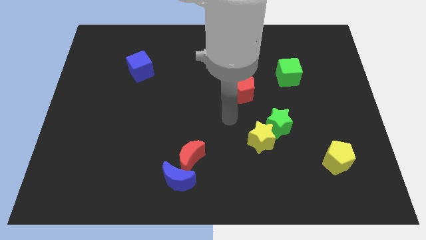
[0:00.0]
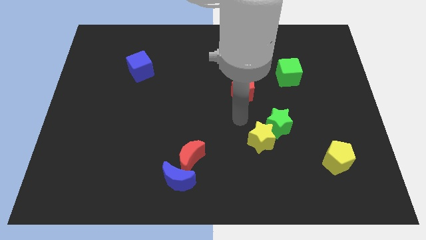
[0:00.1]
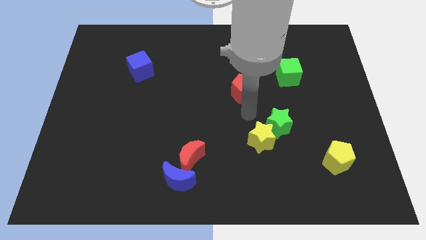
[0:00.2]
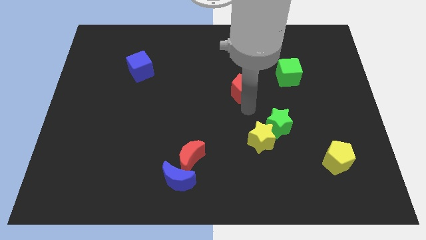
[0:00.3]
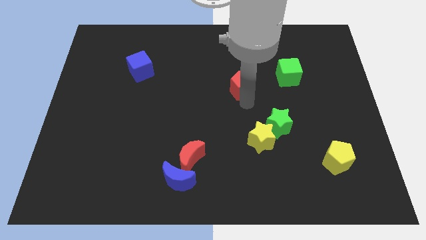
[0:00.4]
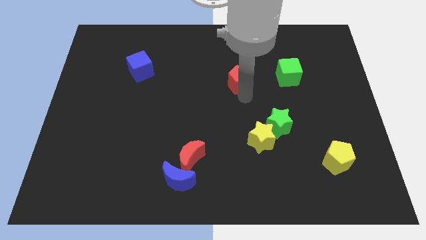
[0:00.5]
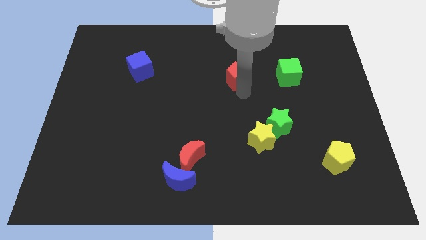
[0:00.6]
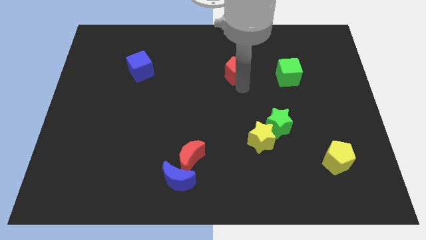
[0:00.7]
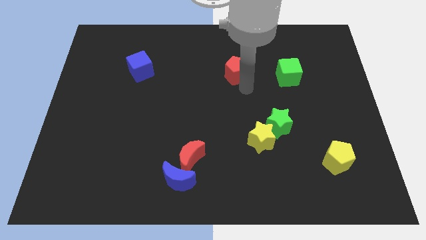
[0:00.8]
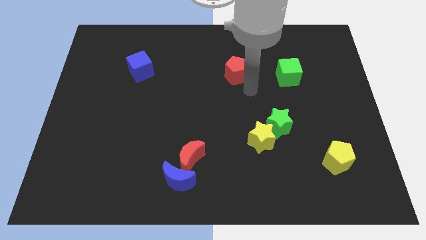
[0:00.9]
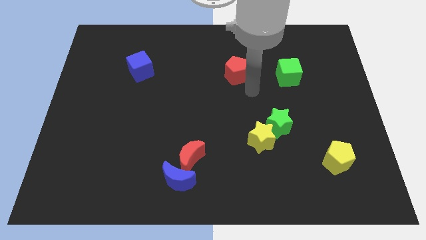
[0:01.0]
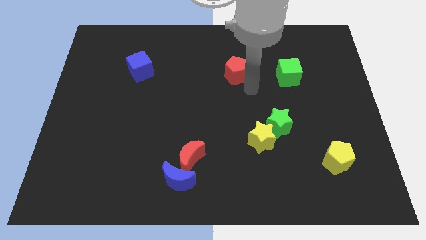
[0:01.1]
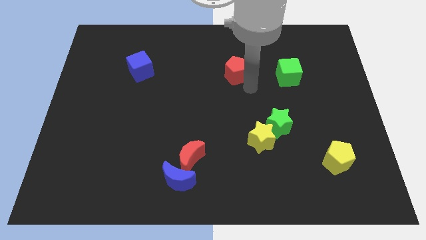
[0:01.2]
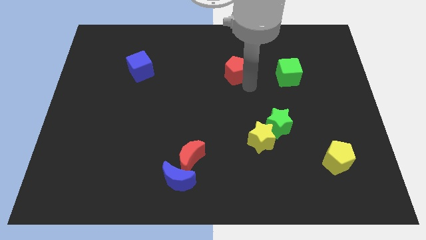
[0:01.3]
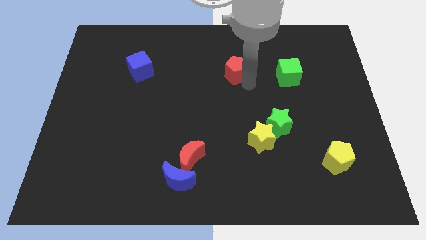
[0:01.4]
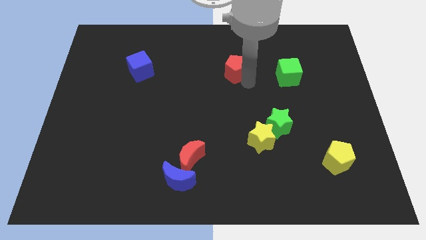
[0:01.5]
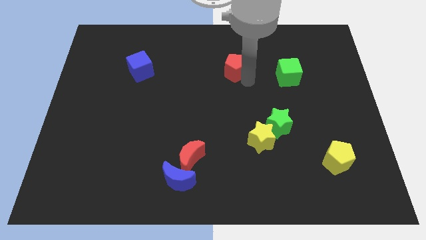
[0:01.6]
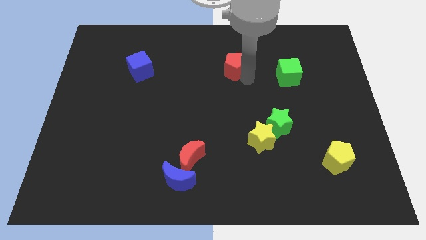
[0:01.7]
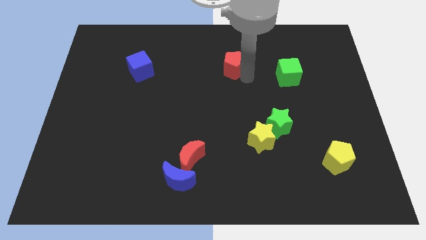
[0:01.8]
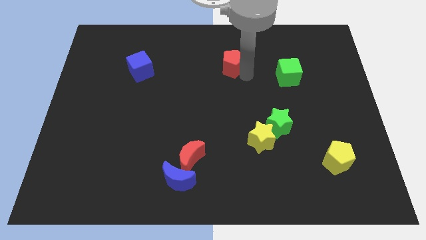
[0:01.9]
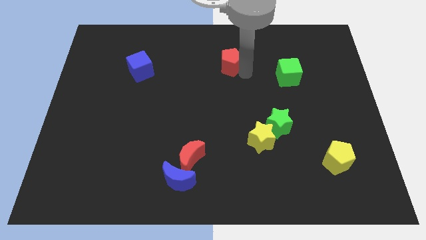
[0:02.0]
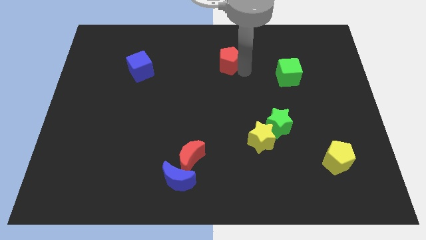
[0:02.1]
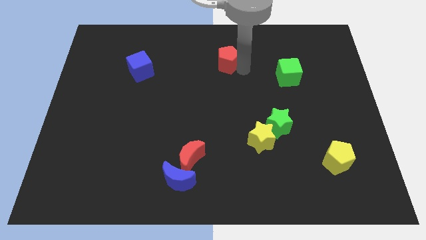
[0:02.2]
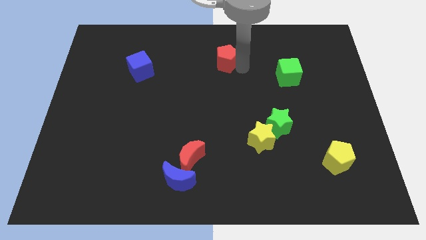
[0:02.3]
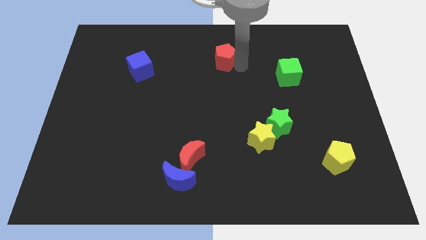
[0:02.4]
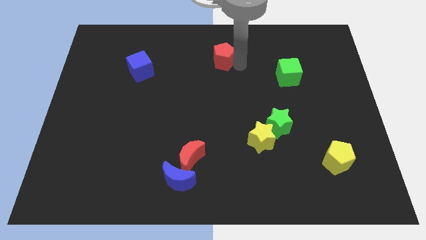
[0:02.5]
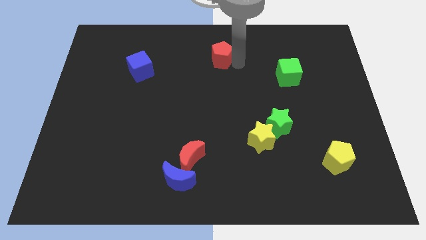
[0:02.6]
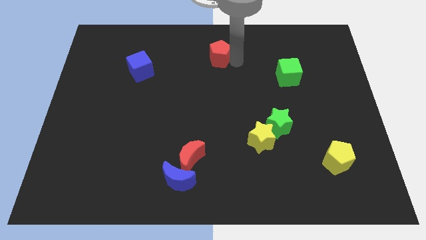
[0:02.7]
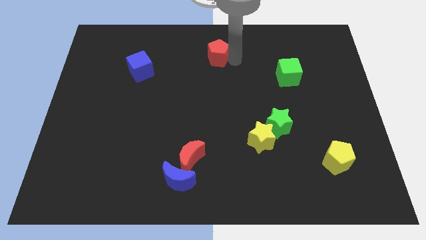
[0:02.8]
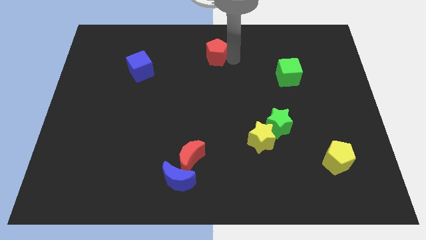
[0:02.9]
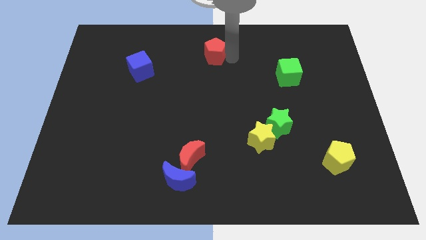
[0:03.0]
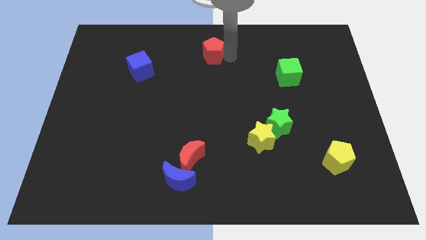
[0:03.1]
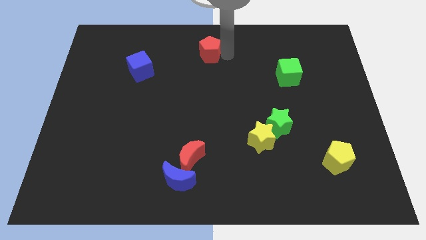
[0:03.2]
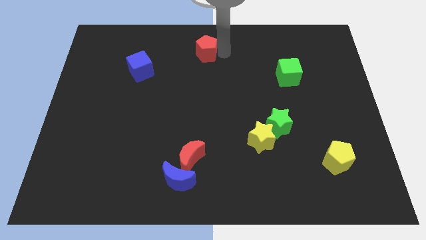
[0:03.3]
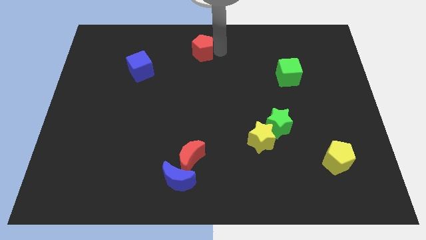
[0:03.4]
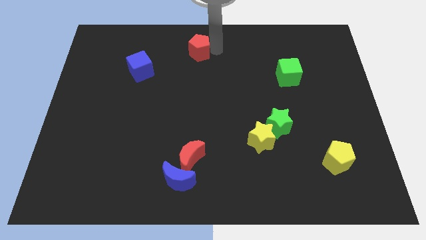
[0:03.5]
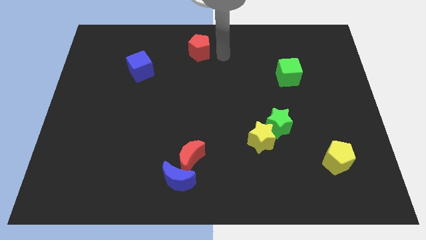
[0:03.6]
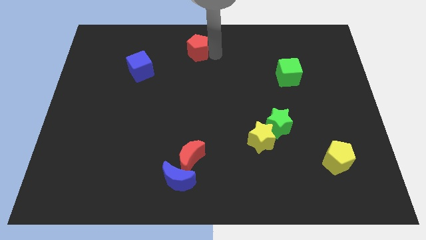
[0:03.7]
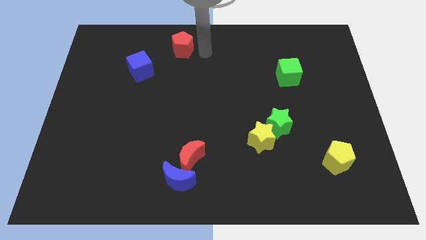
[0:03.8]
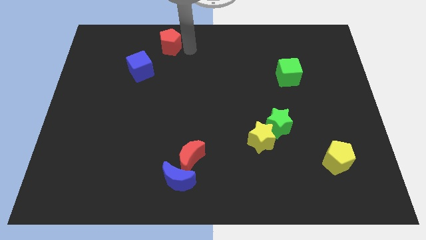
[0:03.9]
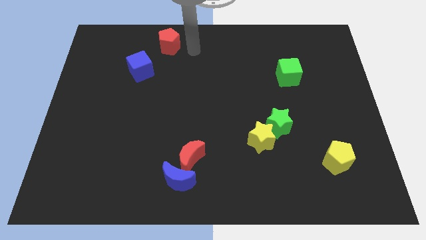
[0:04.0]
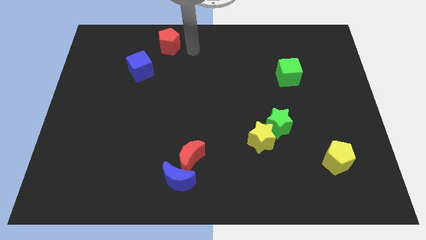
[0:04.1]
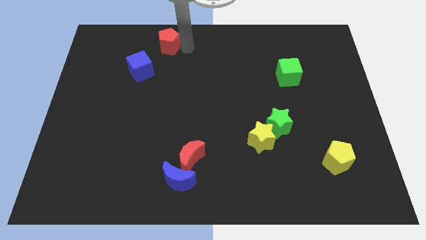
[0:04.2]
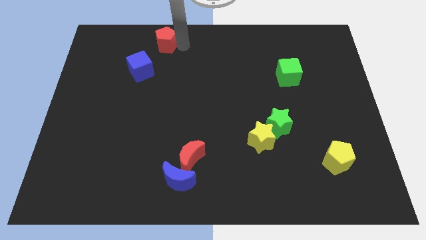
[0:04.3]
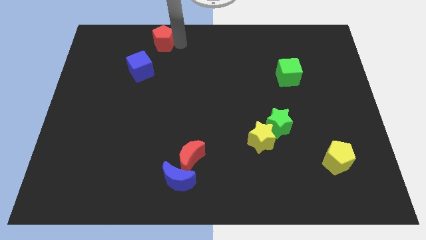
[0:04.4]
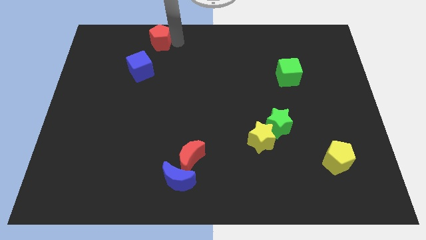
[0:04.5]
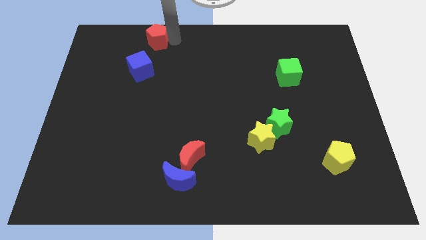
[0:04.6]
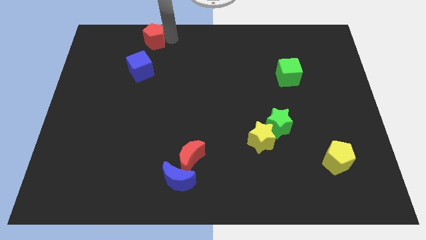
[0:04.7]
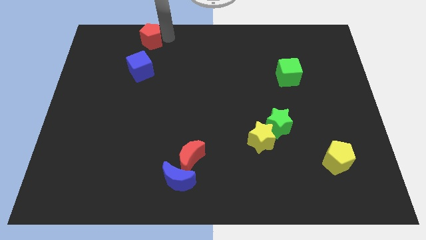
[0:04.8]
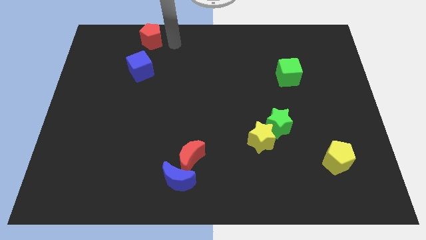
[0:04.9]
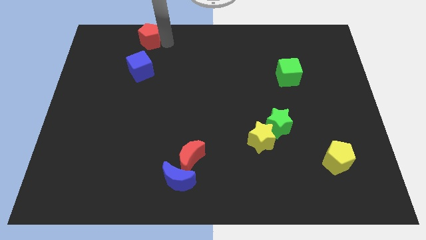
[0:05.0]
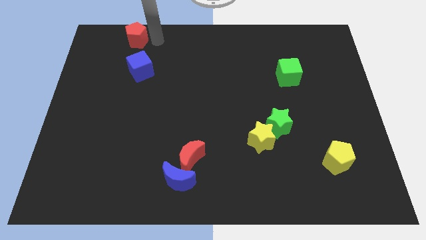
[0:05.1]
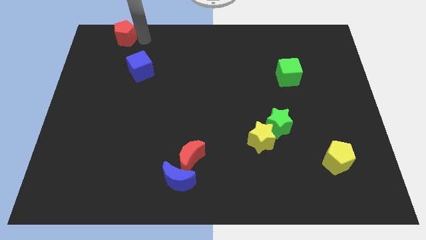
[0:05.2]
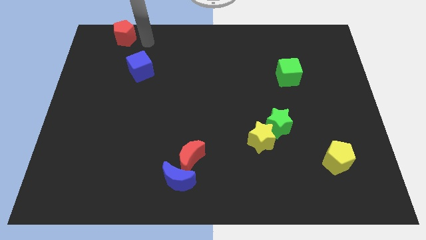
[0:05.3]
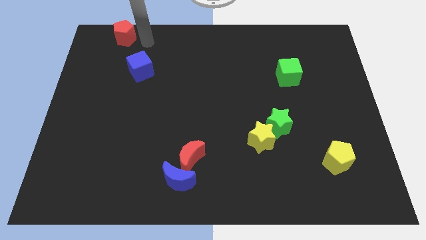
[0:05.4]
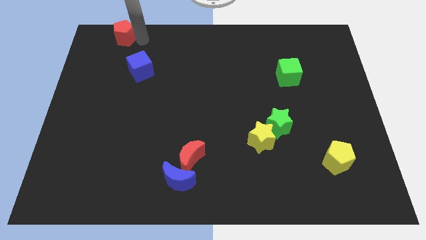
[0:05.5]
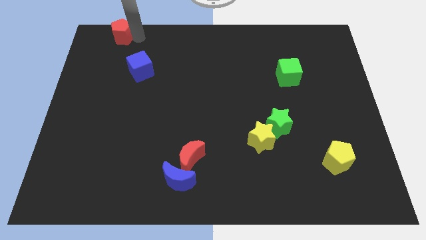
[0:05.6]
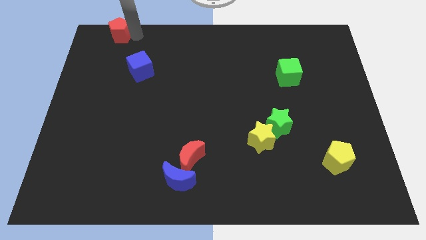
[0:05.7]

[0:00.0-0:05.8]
slide the red pentagon to the top left

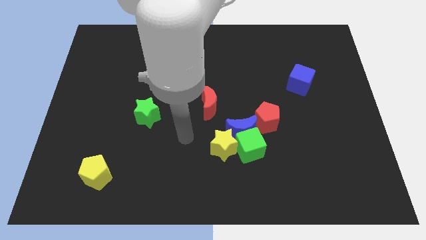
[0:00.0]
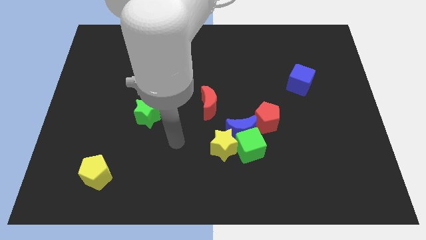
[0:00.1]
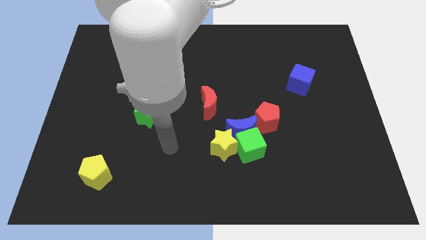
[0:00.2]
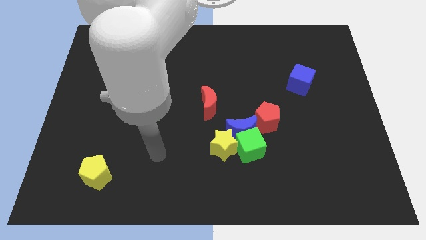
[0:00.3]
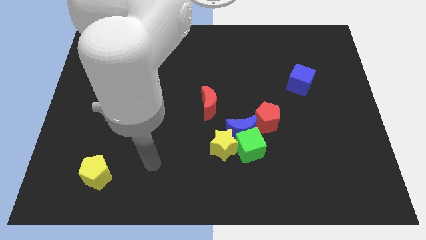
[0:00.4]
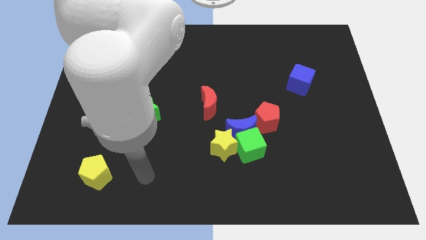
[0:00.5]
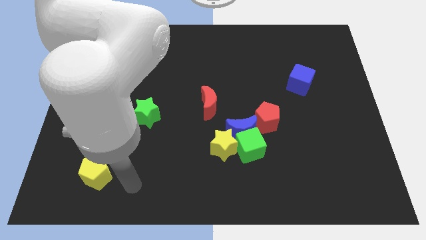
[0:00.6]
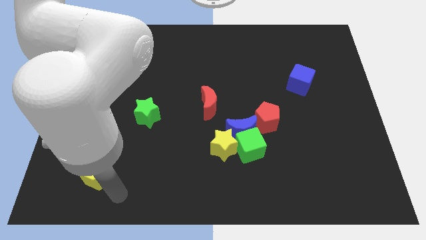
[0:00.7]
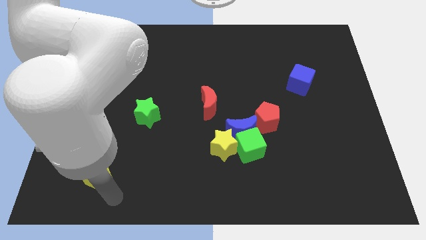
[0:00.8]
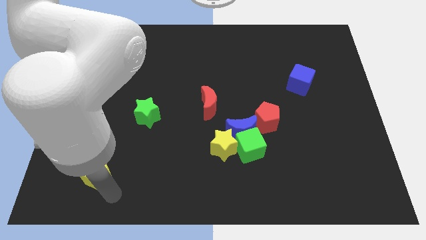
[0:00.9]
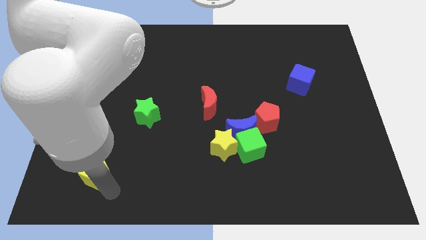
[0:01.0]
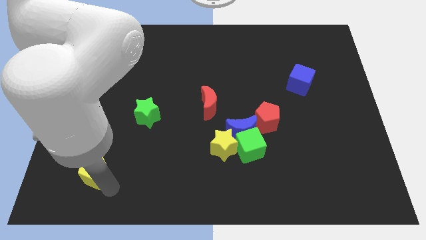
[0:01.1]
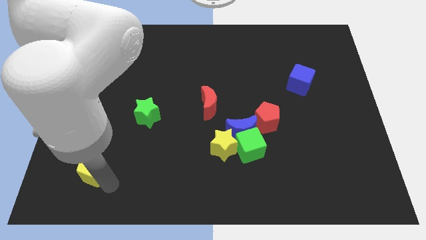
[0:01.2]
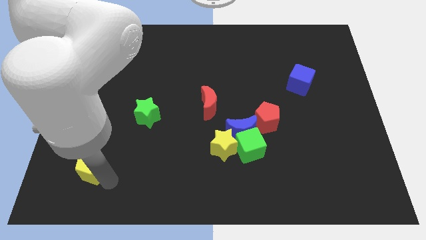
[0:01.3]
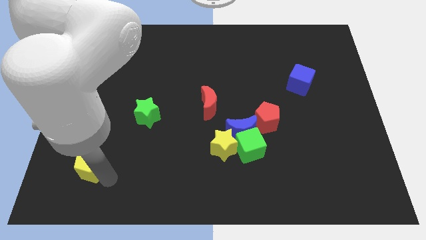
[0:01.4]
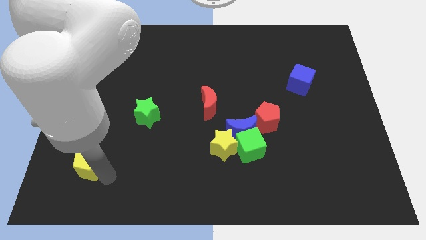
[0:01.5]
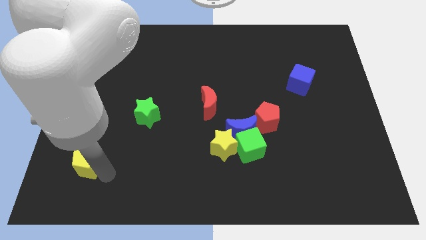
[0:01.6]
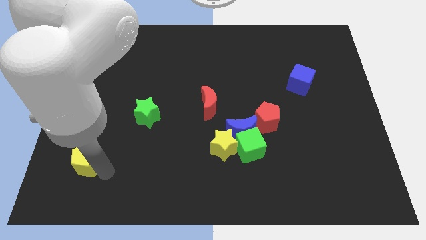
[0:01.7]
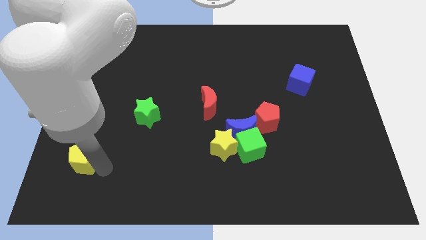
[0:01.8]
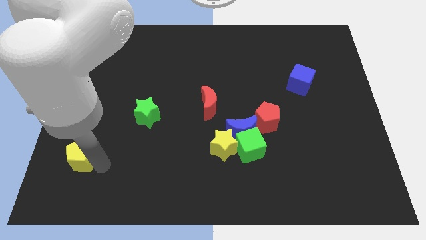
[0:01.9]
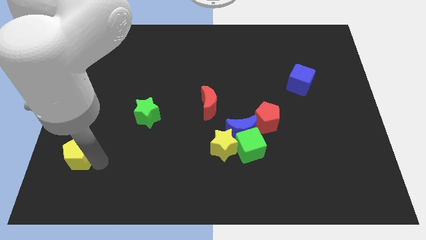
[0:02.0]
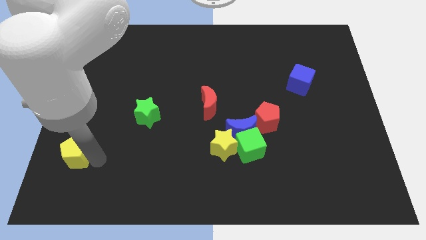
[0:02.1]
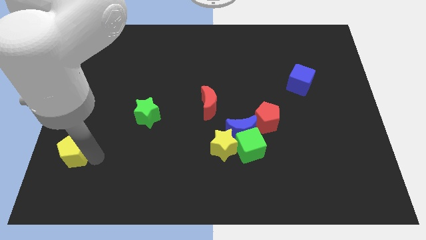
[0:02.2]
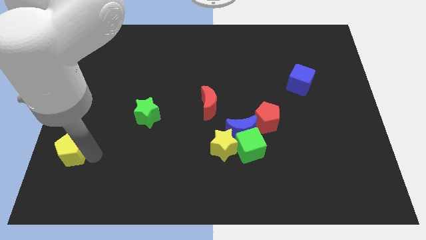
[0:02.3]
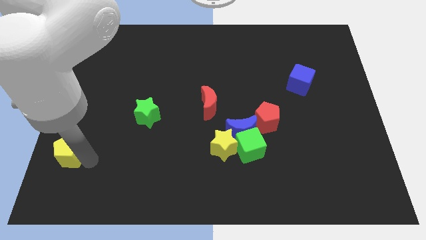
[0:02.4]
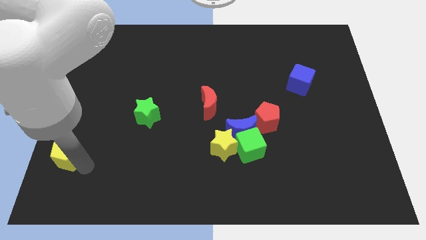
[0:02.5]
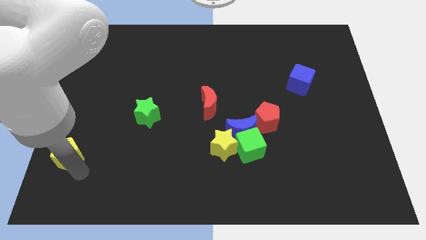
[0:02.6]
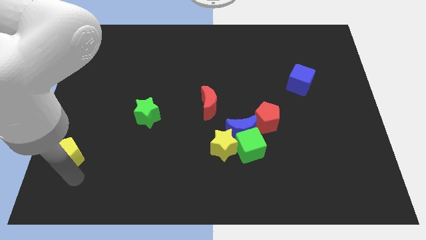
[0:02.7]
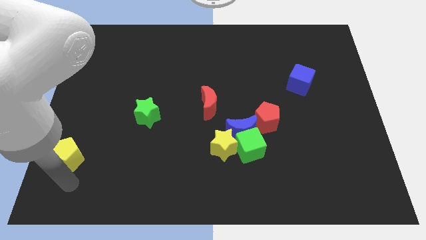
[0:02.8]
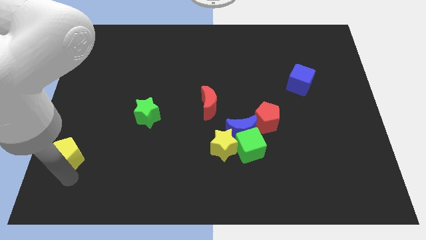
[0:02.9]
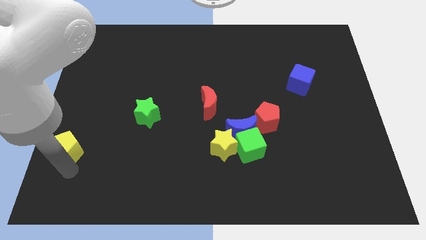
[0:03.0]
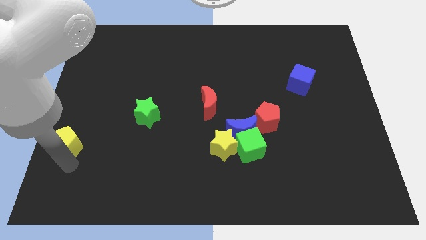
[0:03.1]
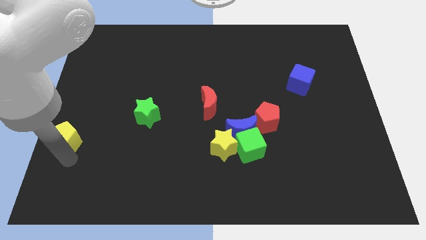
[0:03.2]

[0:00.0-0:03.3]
push the yellow pentagon to the left side of the board
